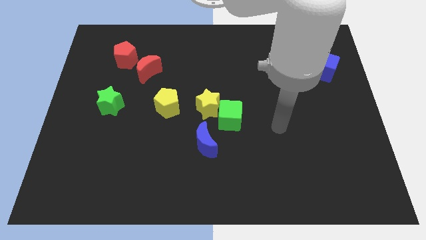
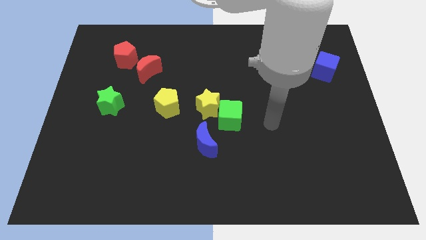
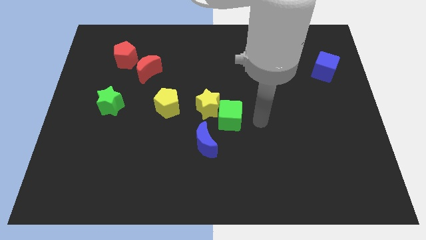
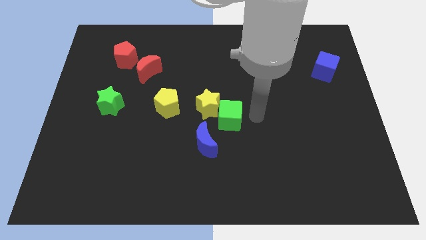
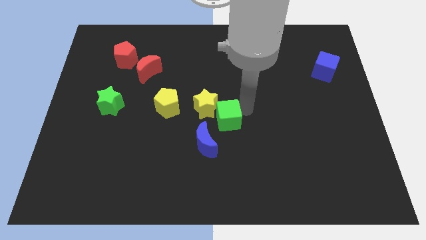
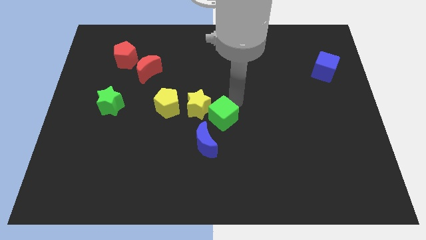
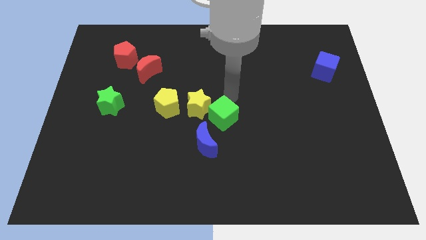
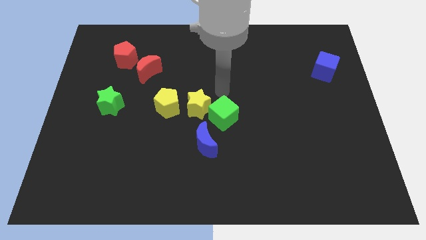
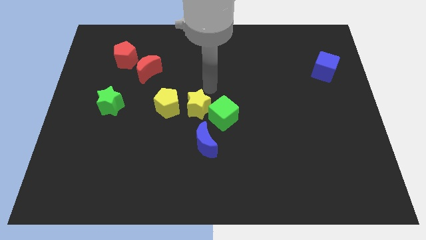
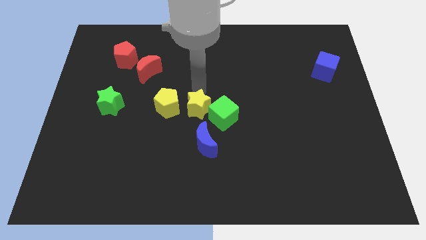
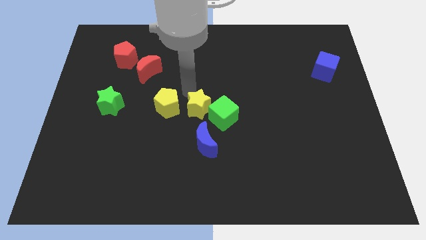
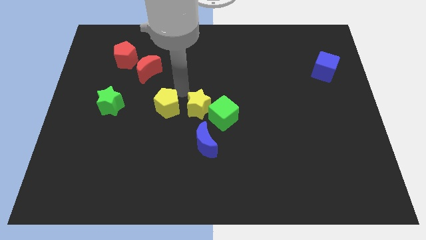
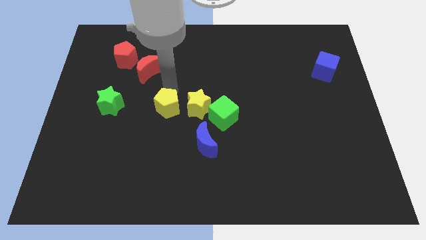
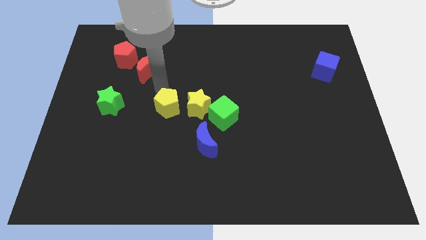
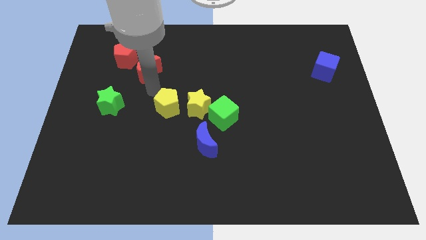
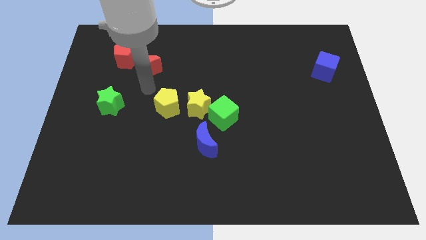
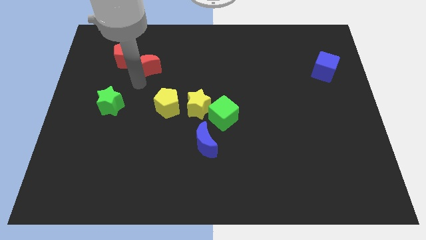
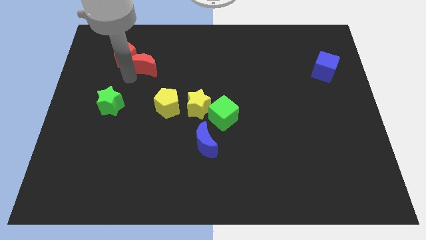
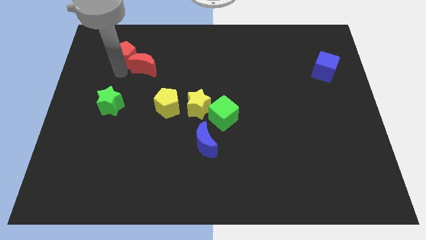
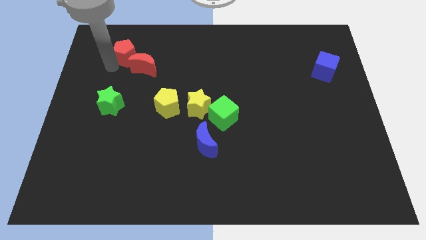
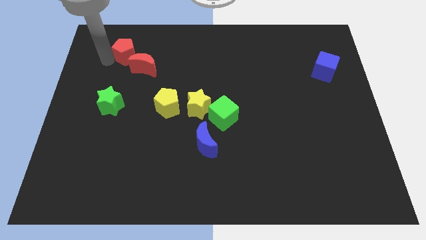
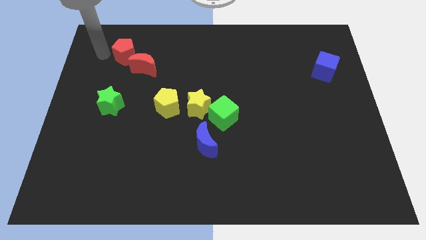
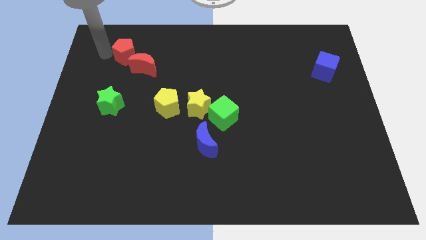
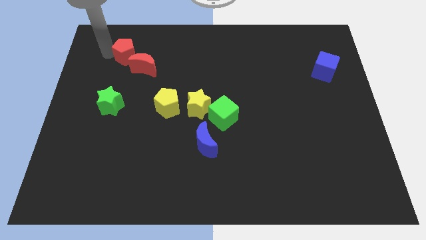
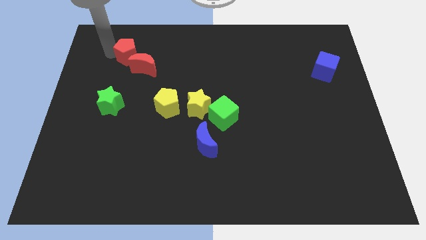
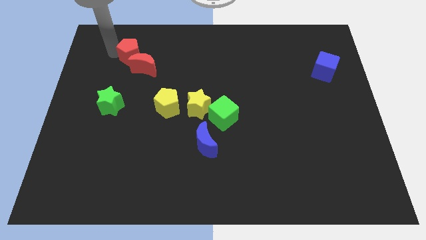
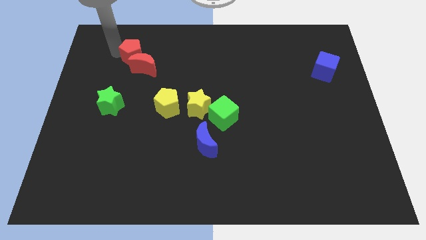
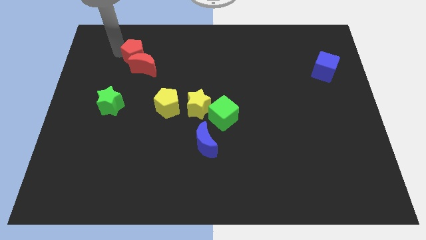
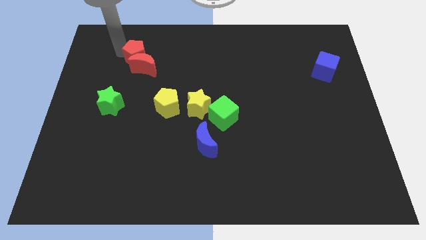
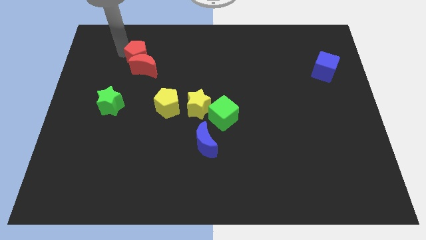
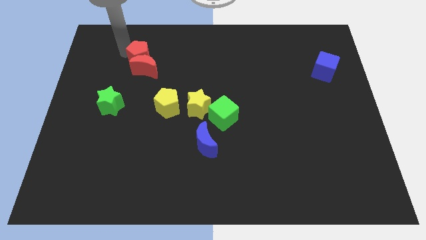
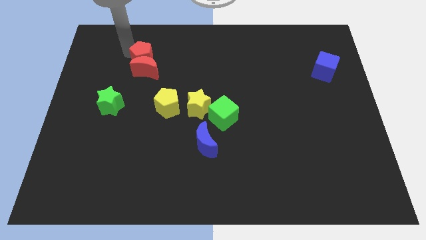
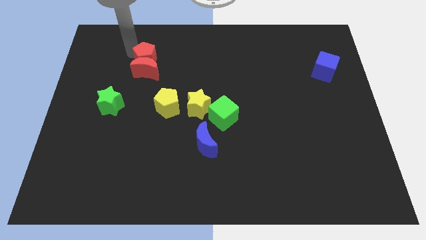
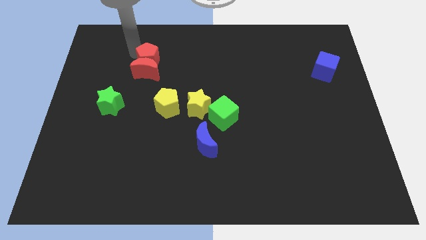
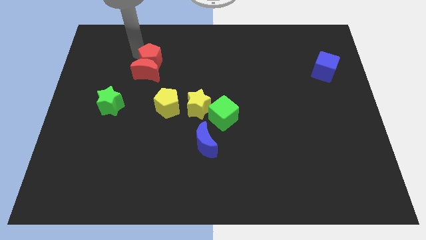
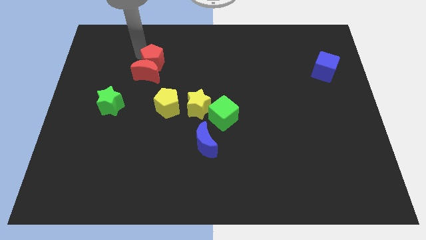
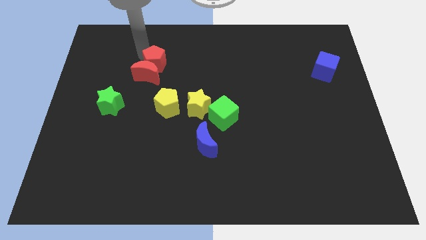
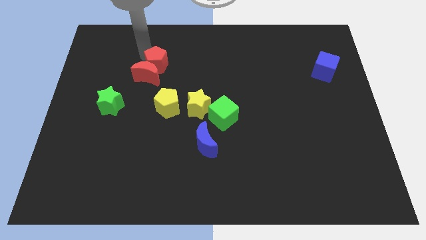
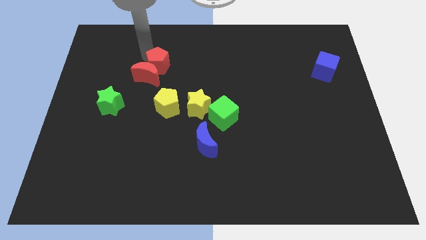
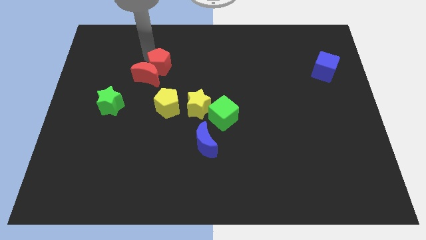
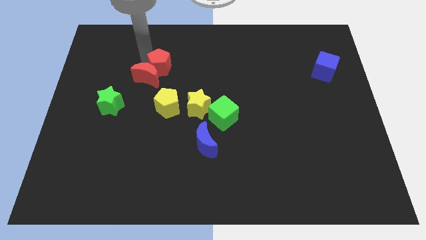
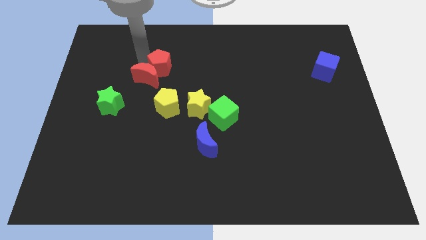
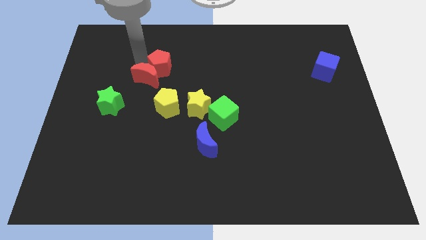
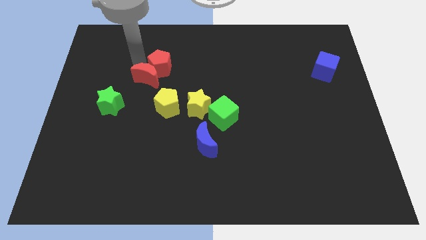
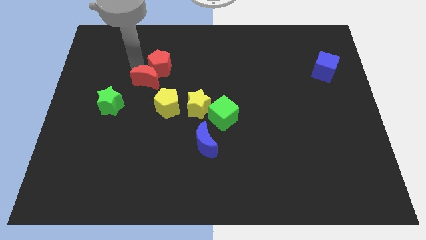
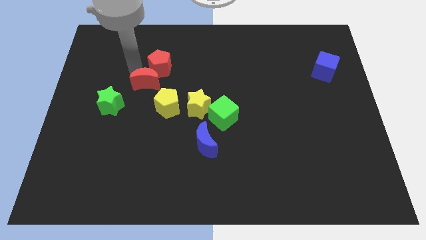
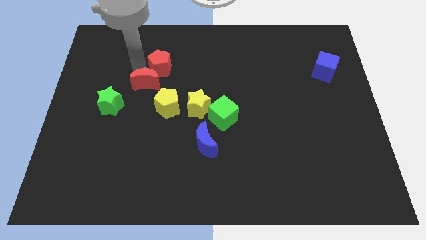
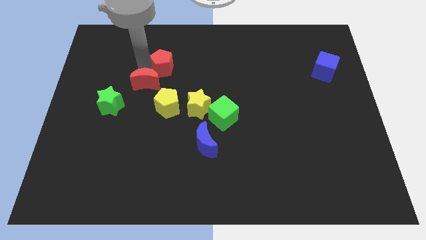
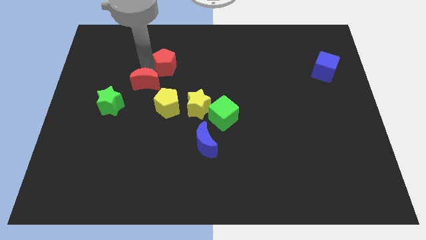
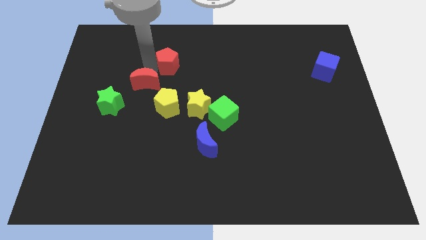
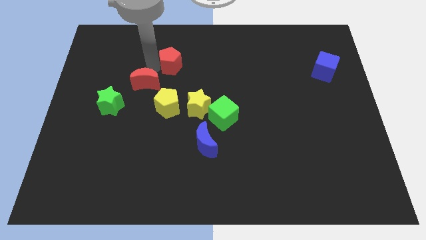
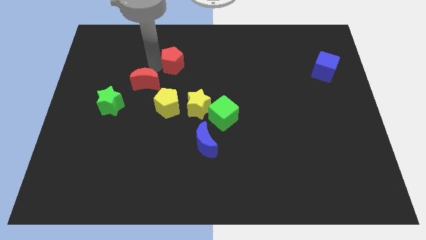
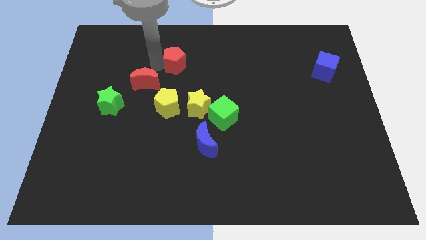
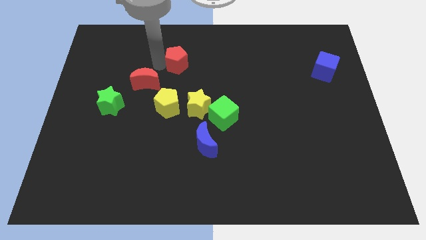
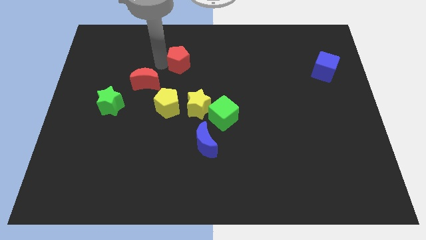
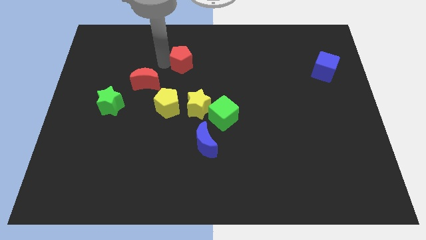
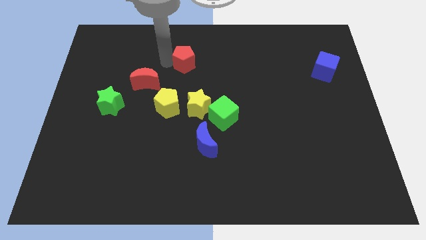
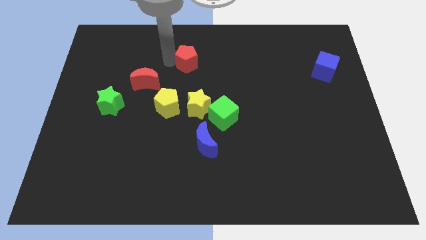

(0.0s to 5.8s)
move the red pentagon above the yellow star
